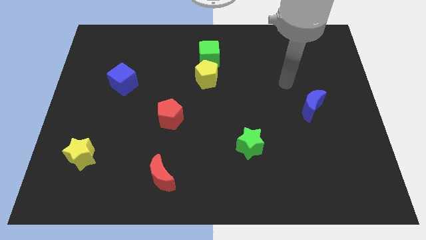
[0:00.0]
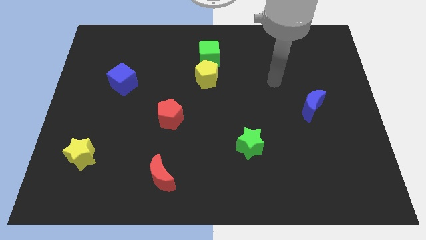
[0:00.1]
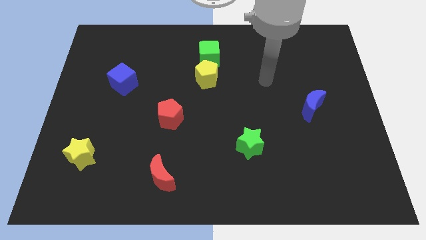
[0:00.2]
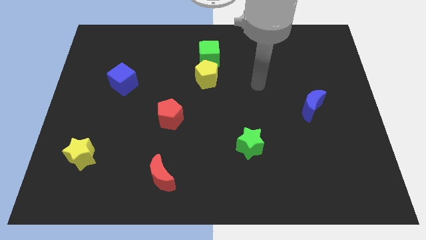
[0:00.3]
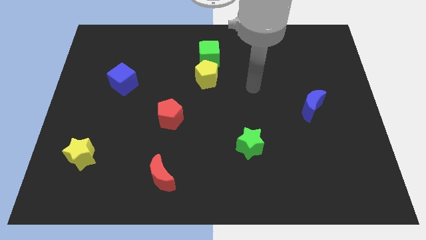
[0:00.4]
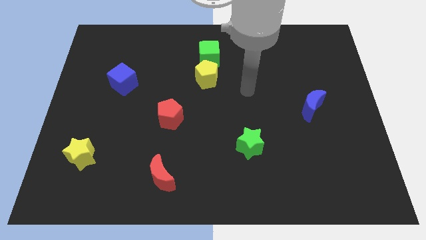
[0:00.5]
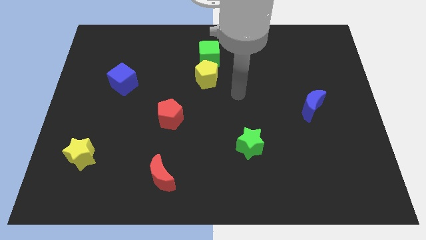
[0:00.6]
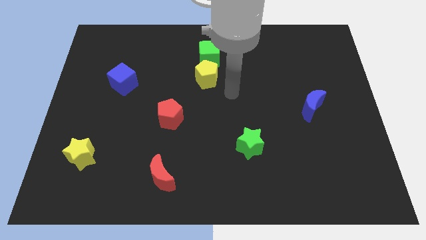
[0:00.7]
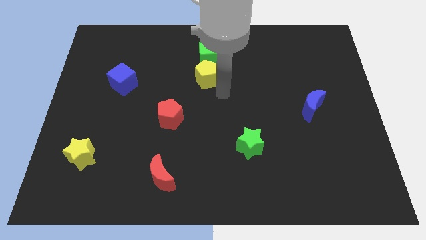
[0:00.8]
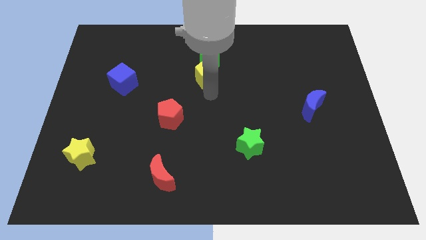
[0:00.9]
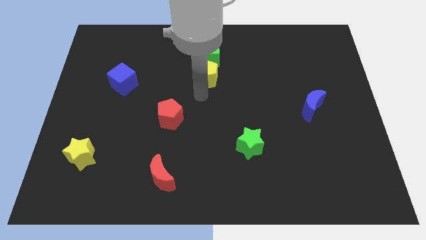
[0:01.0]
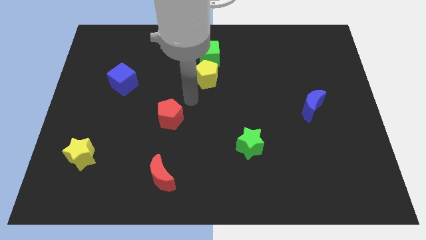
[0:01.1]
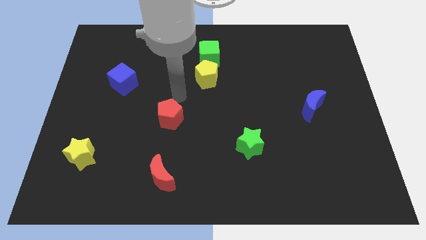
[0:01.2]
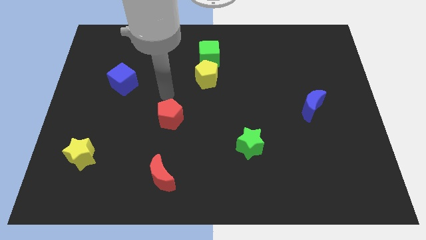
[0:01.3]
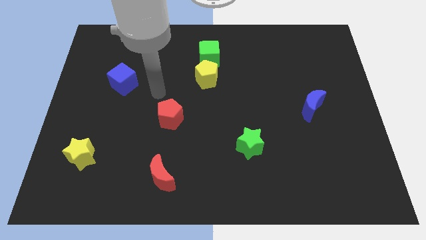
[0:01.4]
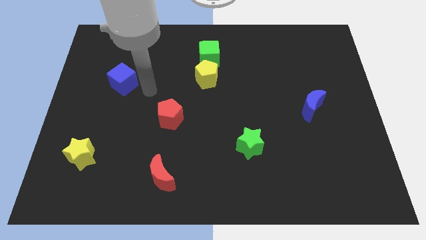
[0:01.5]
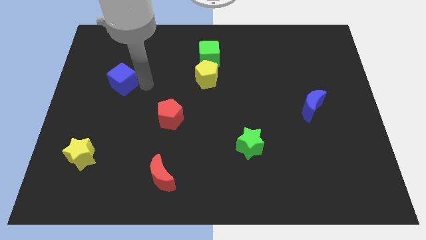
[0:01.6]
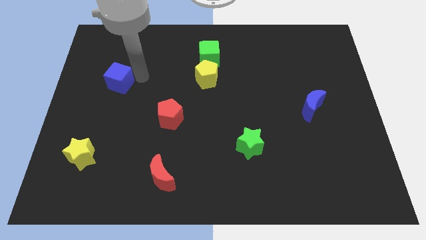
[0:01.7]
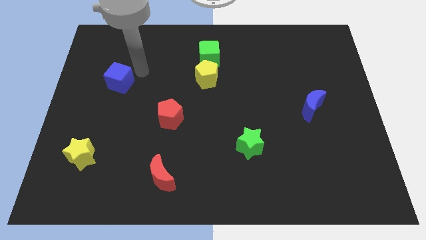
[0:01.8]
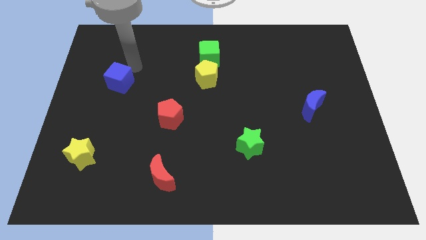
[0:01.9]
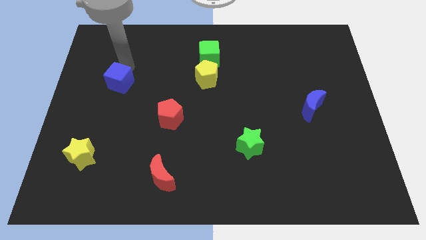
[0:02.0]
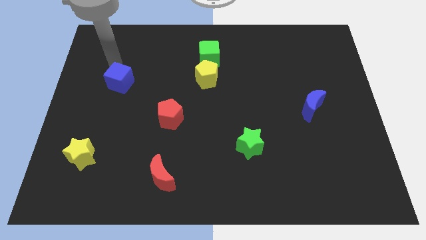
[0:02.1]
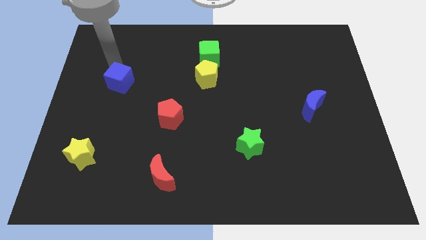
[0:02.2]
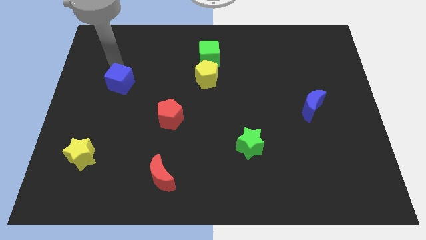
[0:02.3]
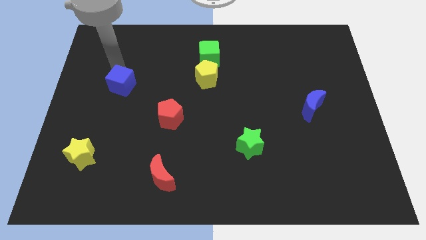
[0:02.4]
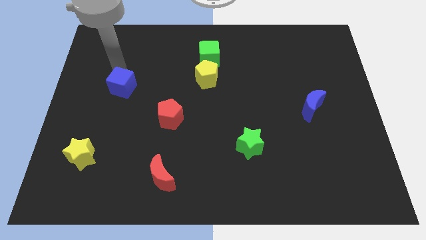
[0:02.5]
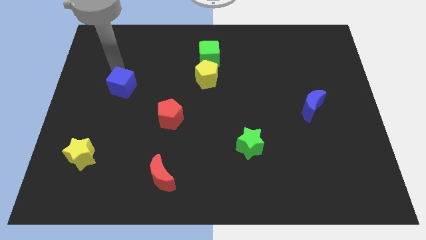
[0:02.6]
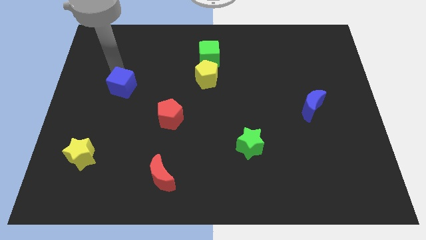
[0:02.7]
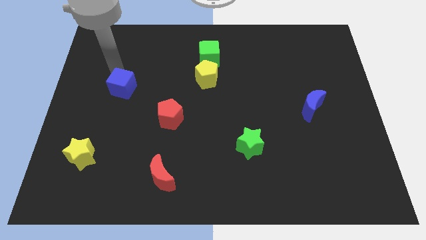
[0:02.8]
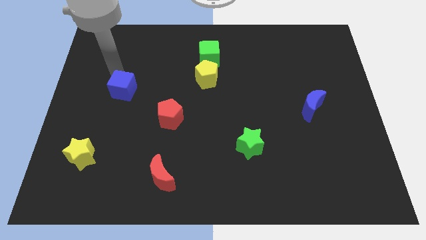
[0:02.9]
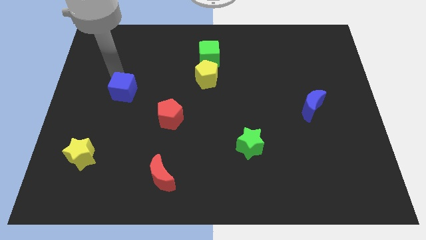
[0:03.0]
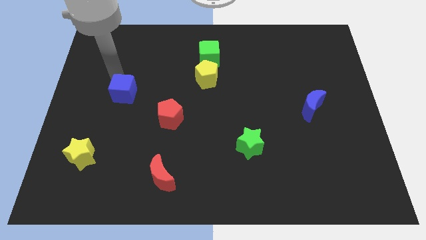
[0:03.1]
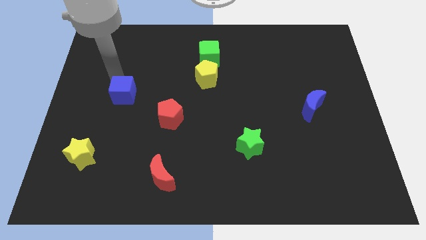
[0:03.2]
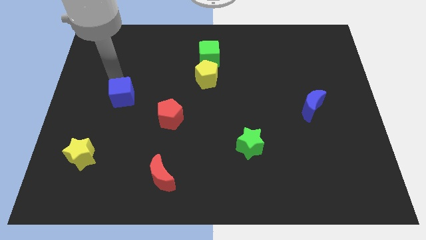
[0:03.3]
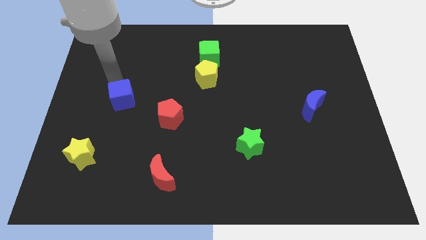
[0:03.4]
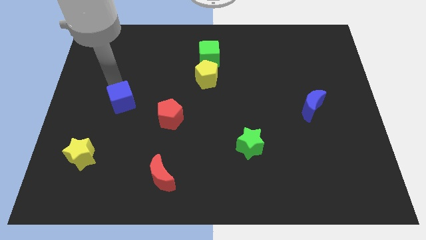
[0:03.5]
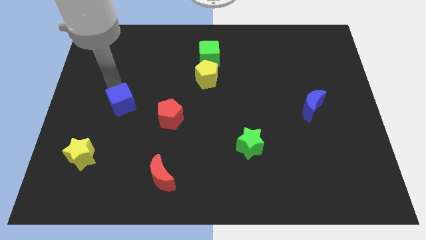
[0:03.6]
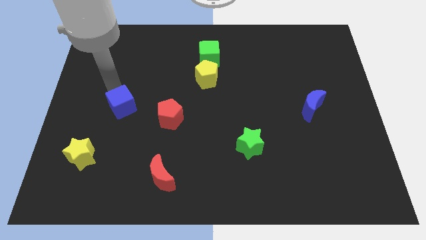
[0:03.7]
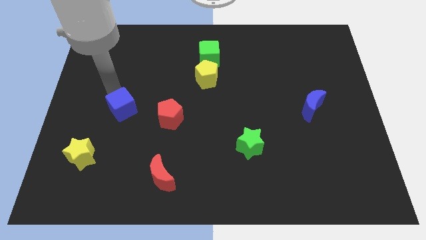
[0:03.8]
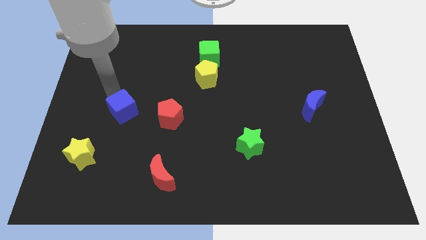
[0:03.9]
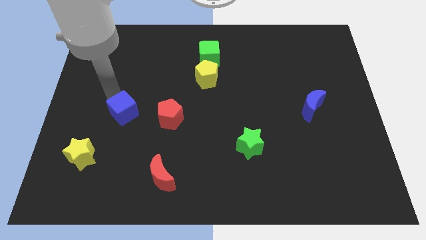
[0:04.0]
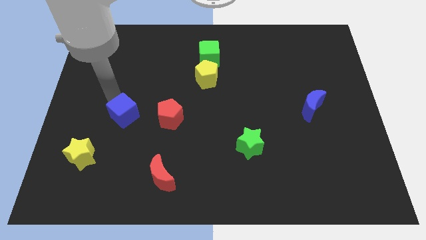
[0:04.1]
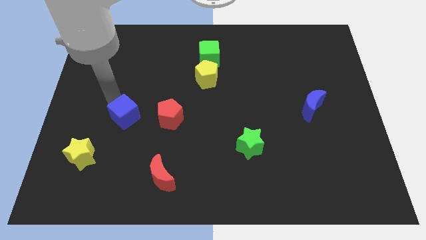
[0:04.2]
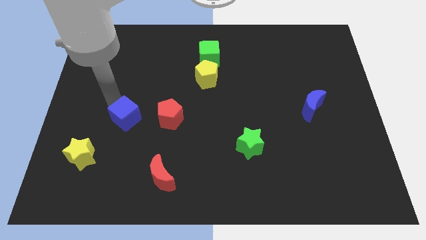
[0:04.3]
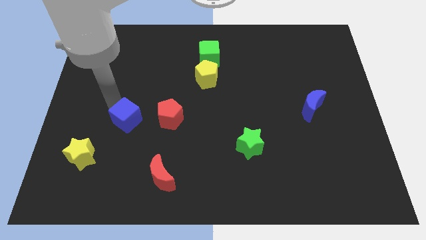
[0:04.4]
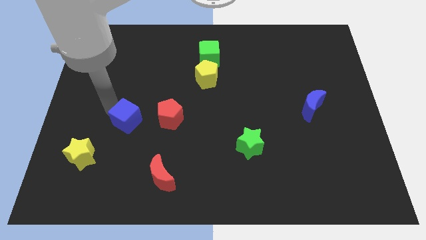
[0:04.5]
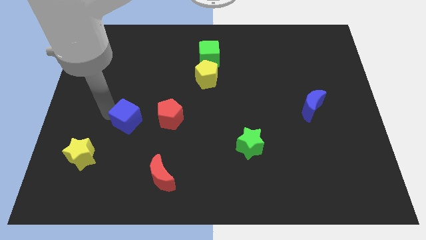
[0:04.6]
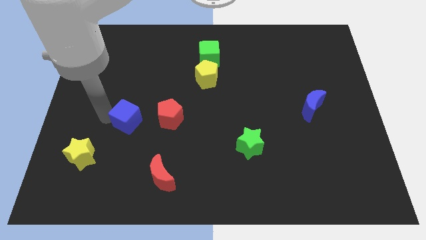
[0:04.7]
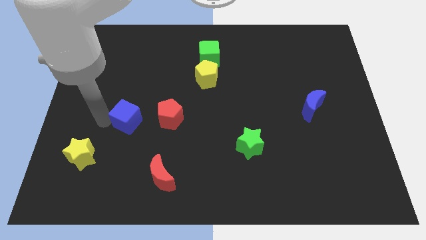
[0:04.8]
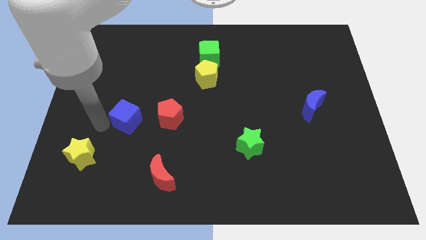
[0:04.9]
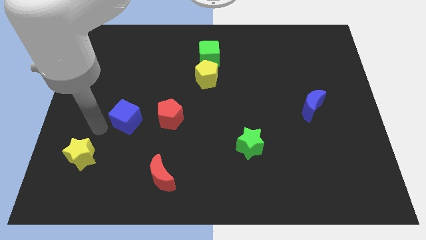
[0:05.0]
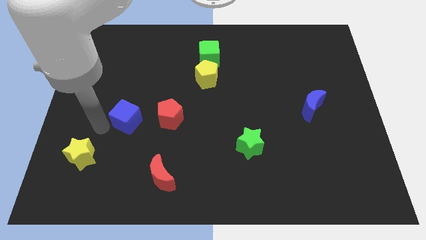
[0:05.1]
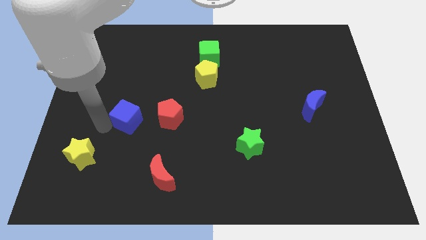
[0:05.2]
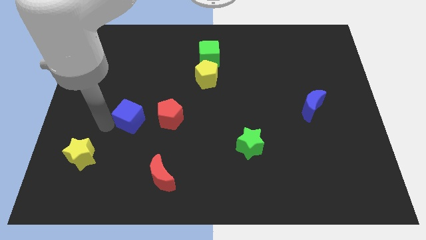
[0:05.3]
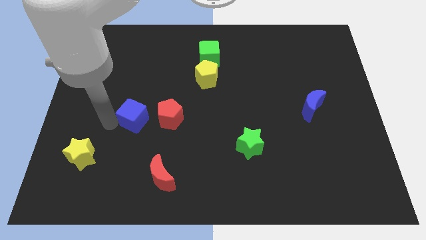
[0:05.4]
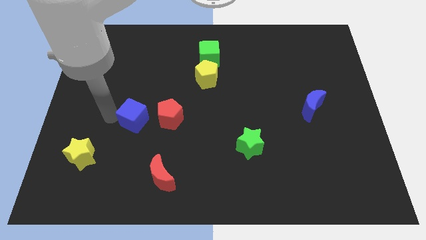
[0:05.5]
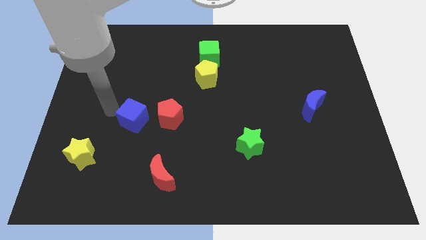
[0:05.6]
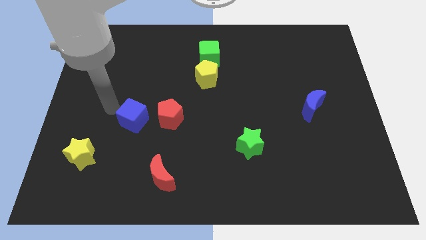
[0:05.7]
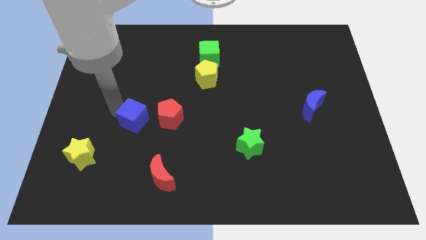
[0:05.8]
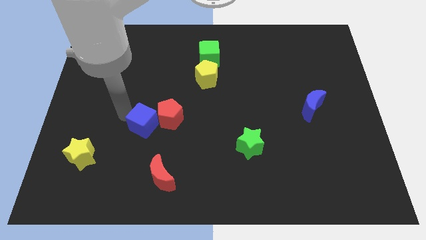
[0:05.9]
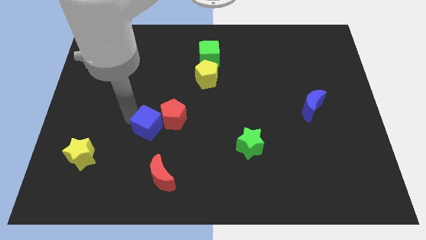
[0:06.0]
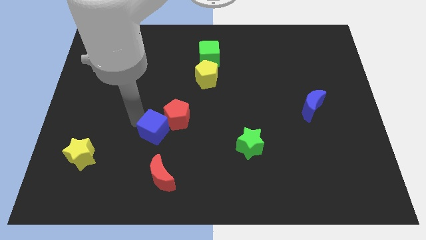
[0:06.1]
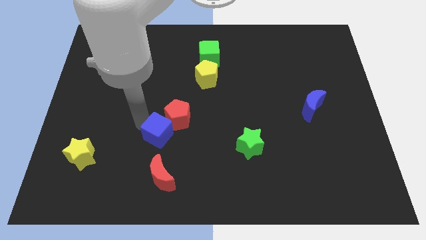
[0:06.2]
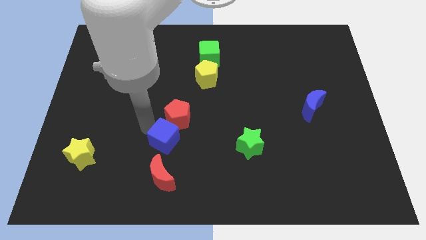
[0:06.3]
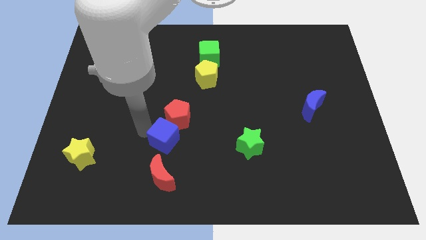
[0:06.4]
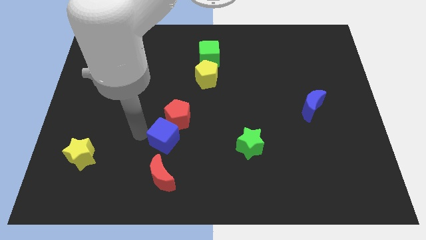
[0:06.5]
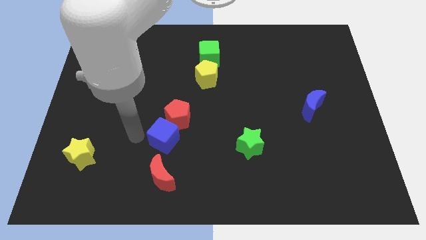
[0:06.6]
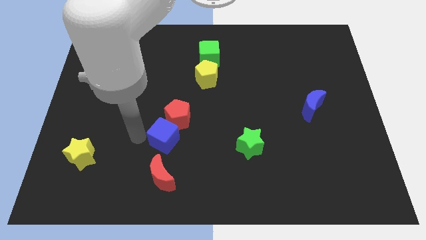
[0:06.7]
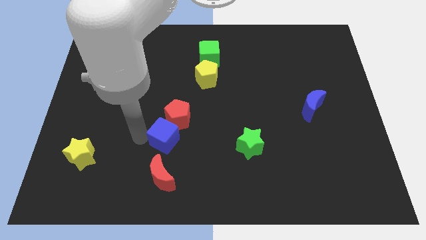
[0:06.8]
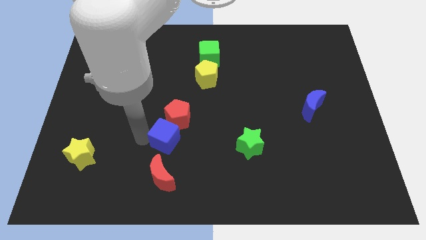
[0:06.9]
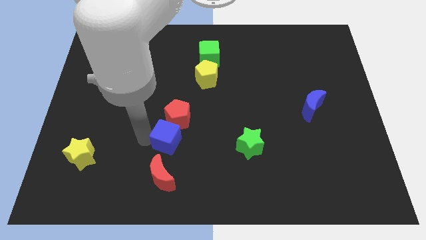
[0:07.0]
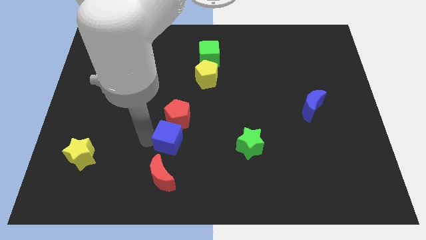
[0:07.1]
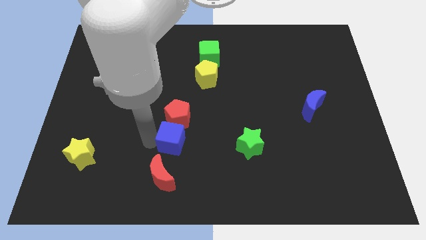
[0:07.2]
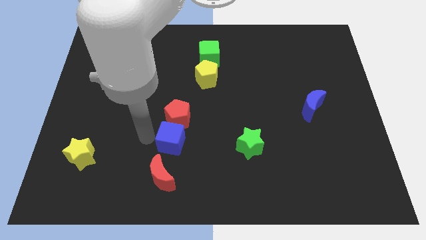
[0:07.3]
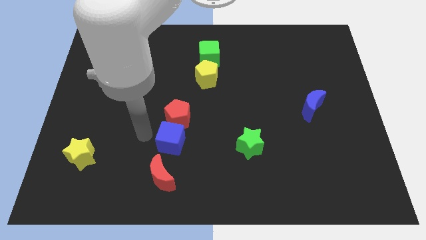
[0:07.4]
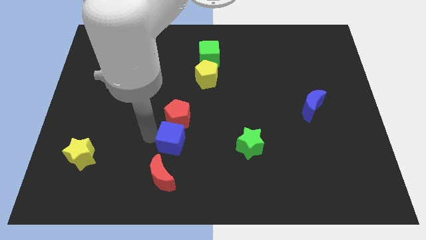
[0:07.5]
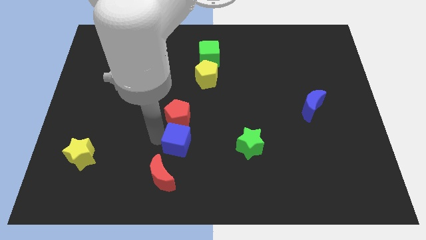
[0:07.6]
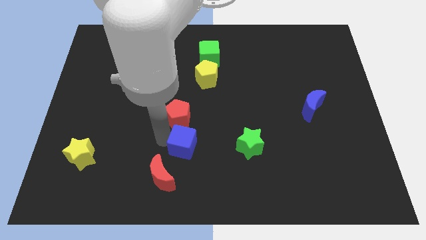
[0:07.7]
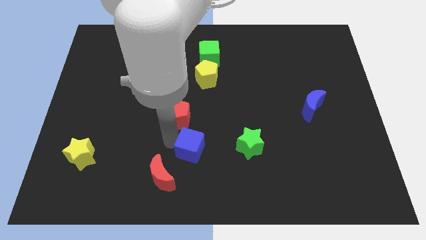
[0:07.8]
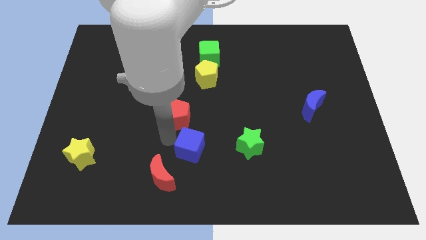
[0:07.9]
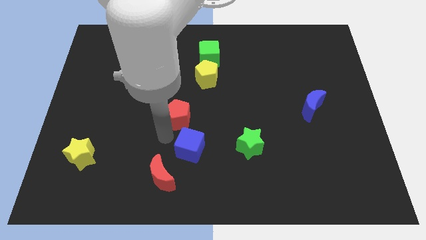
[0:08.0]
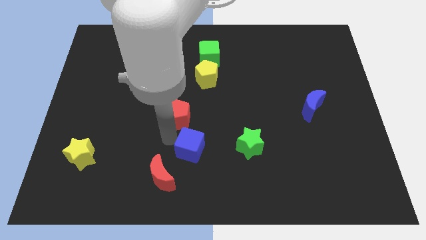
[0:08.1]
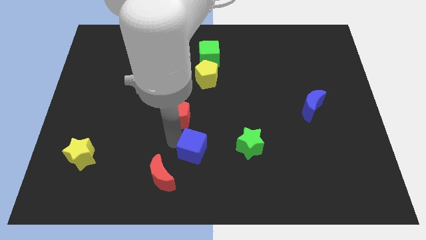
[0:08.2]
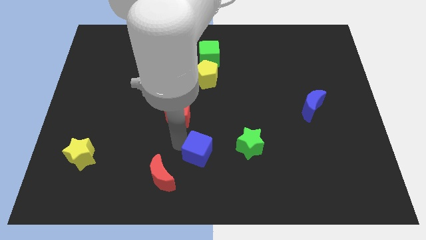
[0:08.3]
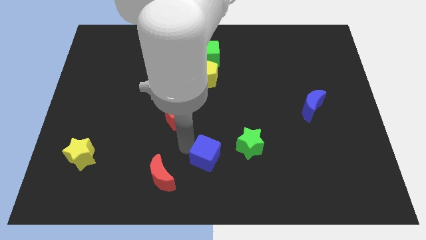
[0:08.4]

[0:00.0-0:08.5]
move the blue cube to the bottom left side of the green star
